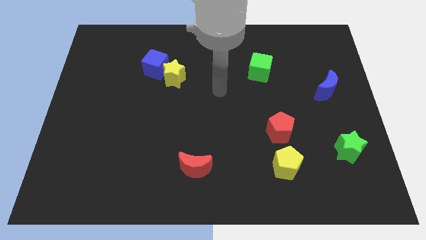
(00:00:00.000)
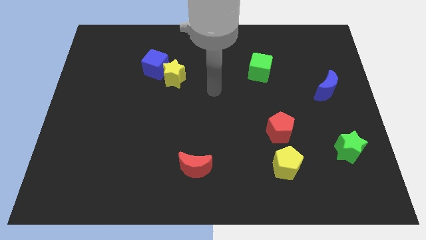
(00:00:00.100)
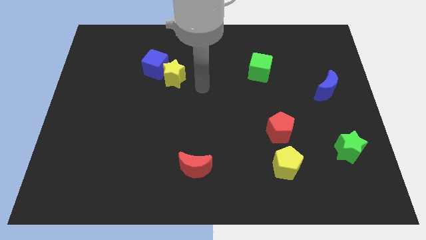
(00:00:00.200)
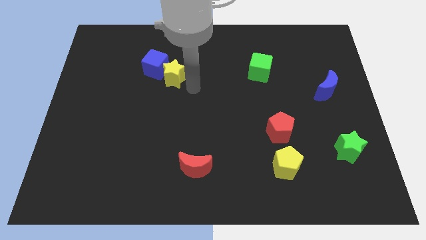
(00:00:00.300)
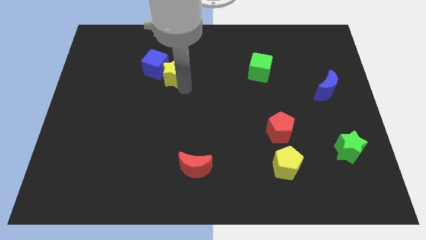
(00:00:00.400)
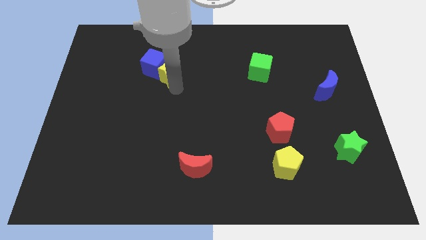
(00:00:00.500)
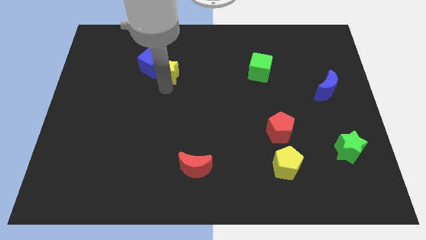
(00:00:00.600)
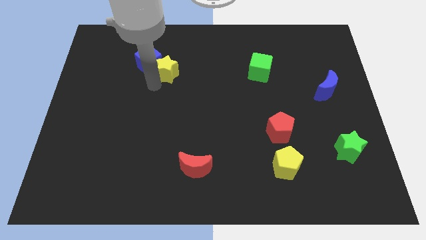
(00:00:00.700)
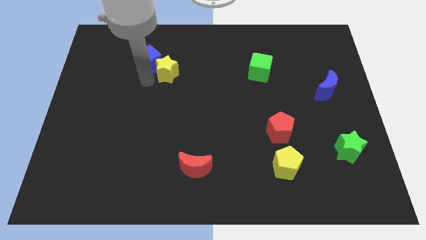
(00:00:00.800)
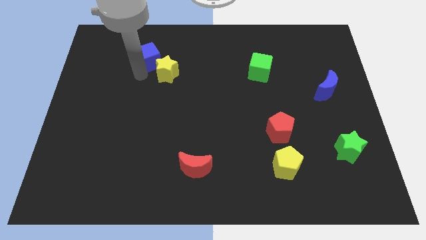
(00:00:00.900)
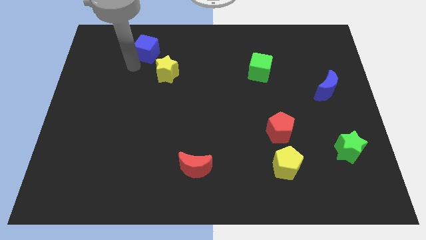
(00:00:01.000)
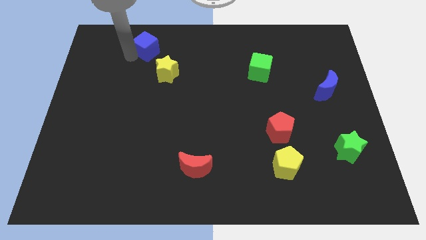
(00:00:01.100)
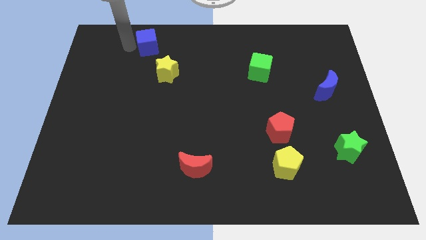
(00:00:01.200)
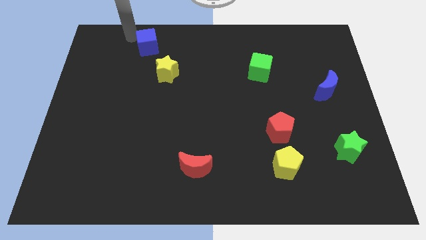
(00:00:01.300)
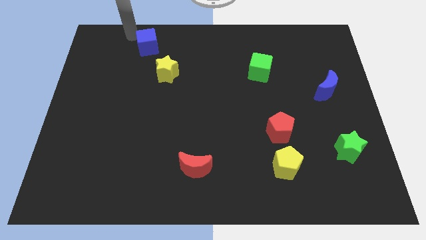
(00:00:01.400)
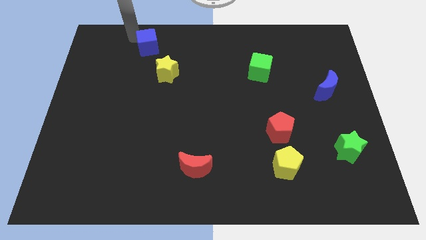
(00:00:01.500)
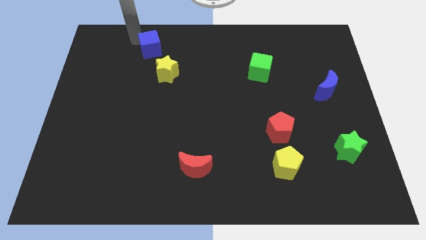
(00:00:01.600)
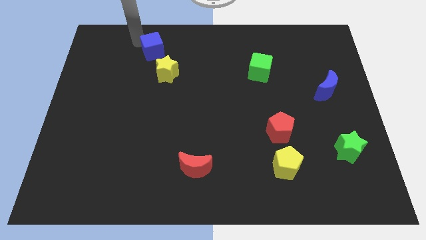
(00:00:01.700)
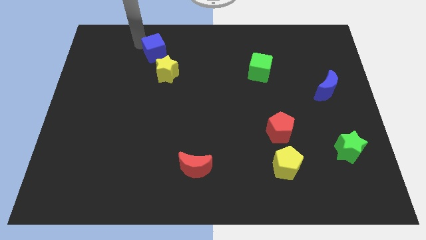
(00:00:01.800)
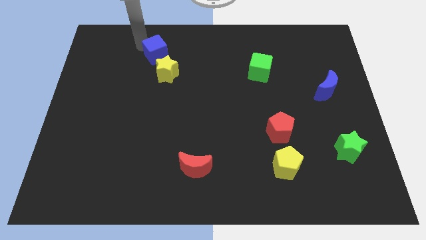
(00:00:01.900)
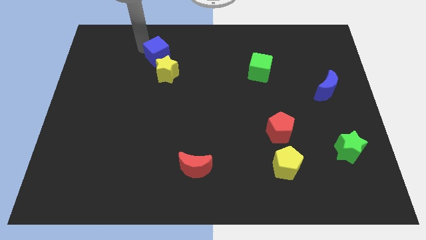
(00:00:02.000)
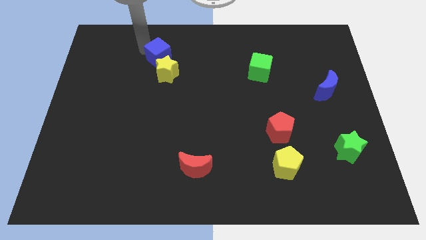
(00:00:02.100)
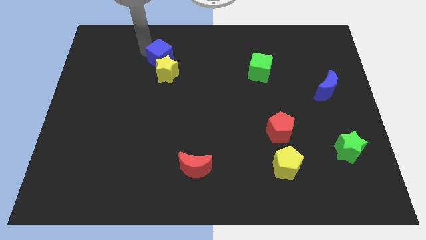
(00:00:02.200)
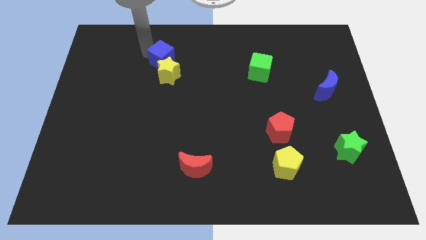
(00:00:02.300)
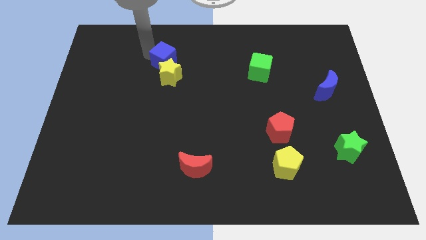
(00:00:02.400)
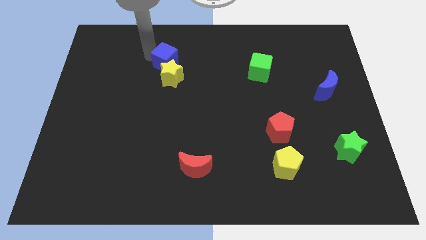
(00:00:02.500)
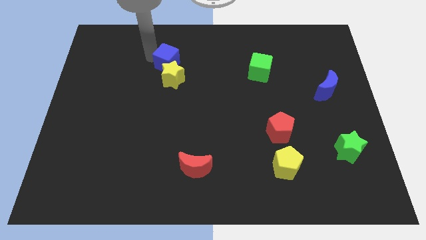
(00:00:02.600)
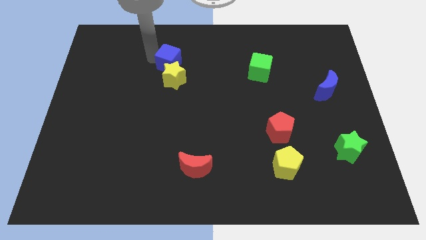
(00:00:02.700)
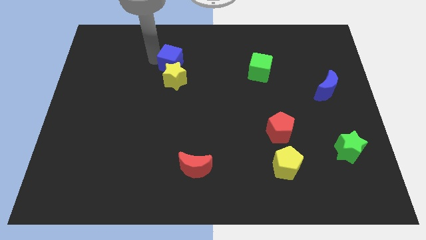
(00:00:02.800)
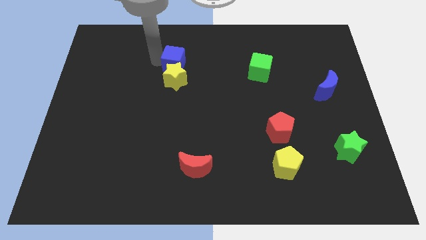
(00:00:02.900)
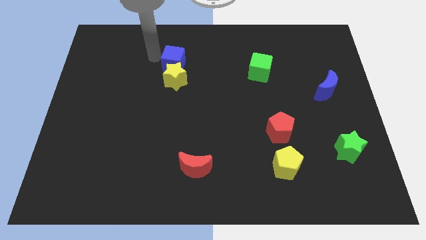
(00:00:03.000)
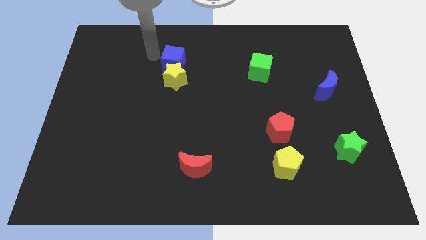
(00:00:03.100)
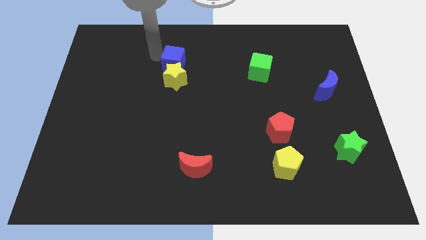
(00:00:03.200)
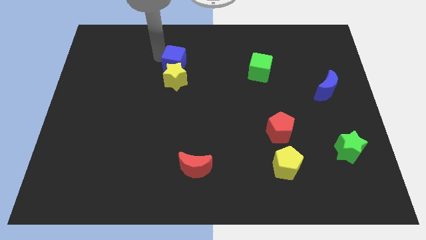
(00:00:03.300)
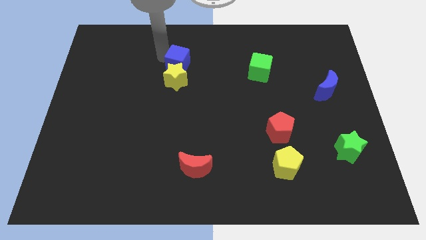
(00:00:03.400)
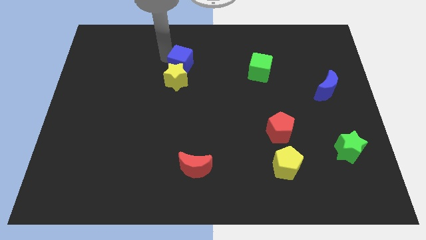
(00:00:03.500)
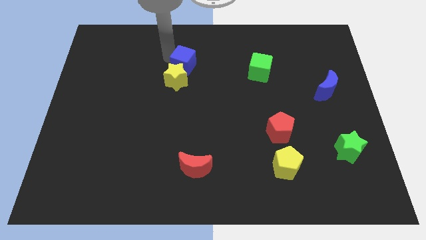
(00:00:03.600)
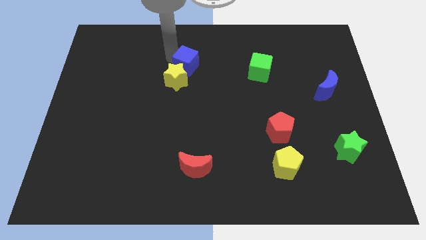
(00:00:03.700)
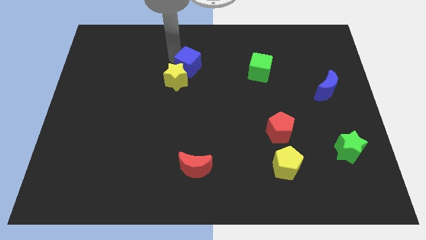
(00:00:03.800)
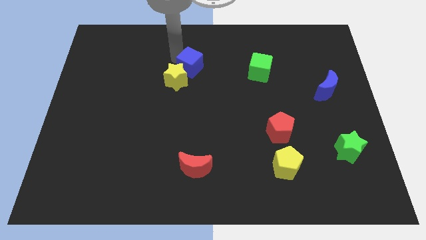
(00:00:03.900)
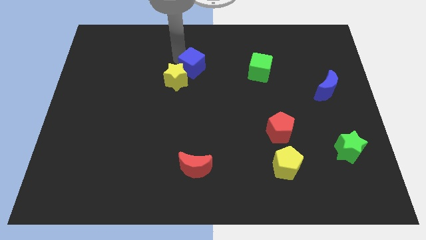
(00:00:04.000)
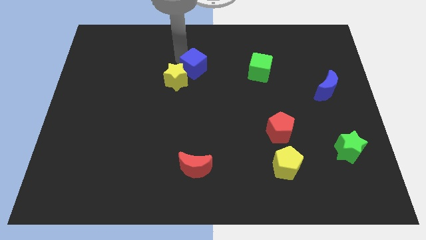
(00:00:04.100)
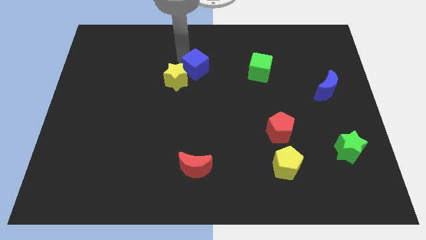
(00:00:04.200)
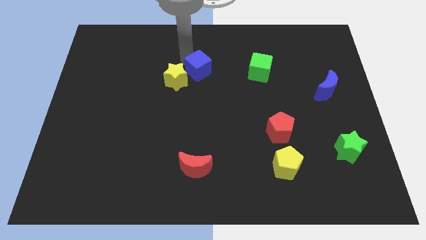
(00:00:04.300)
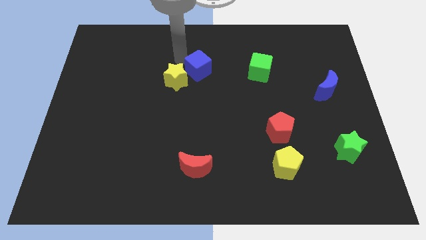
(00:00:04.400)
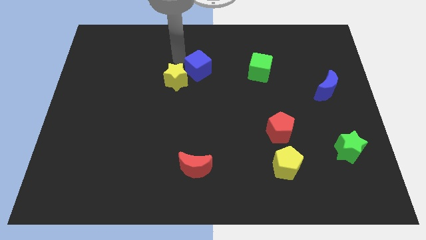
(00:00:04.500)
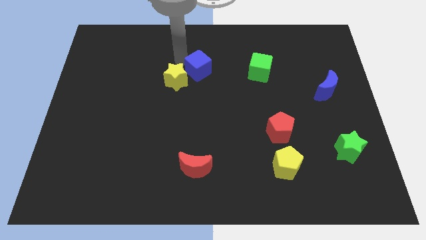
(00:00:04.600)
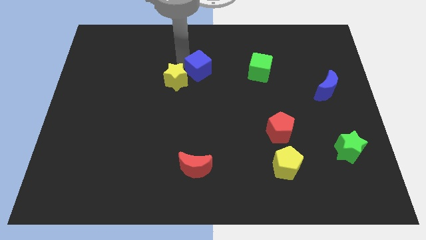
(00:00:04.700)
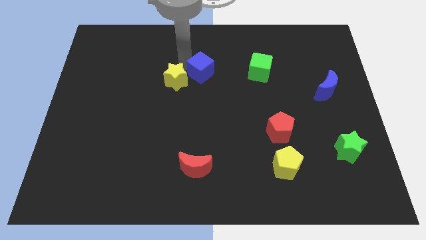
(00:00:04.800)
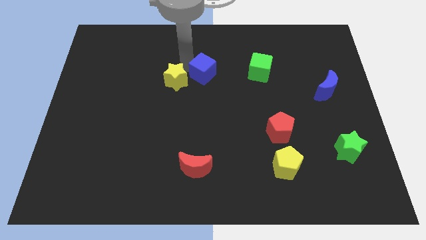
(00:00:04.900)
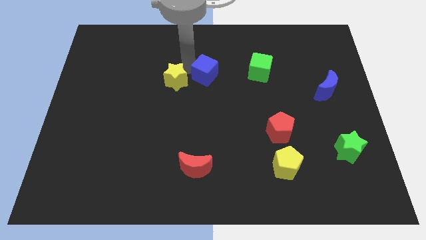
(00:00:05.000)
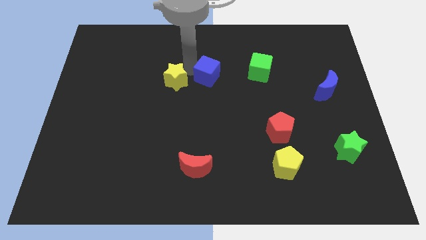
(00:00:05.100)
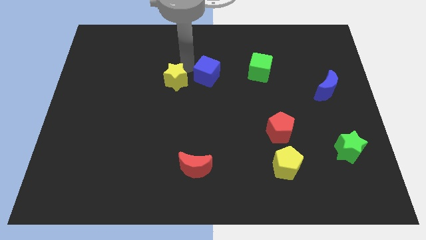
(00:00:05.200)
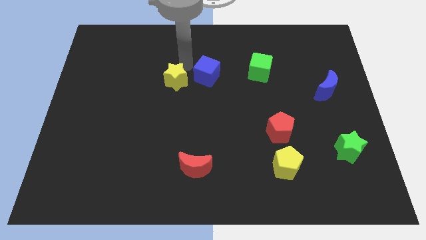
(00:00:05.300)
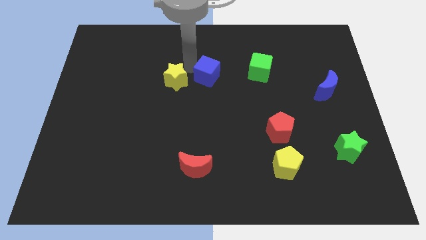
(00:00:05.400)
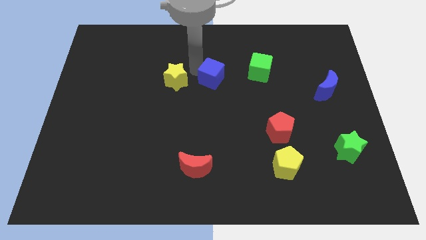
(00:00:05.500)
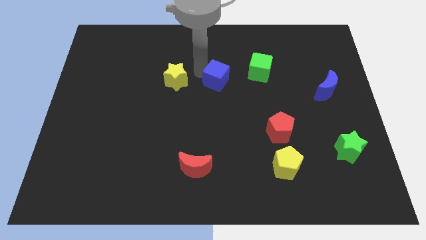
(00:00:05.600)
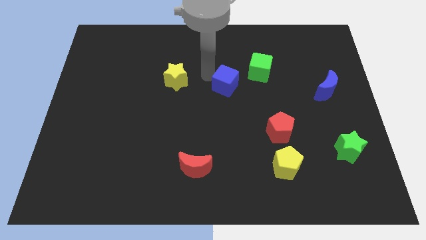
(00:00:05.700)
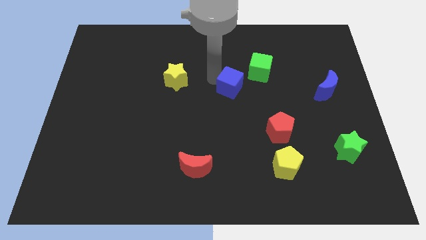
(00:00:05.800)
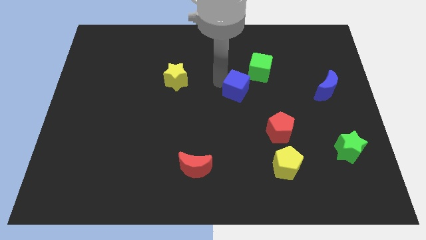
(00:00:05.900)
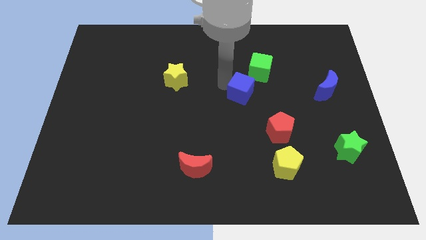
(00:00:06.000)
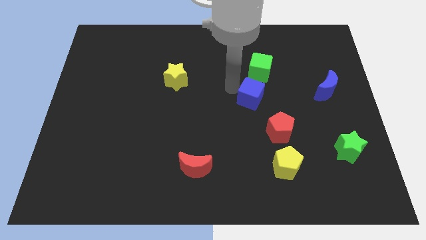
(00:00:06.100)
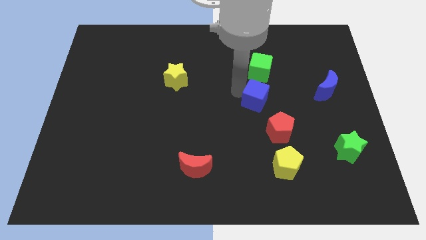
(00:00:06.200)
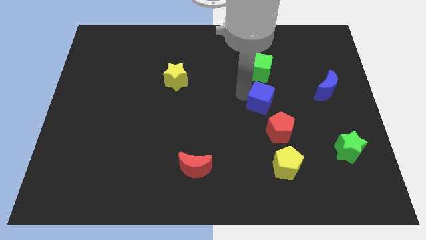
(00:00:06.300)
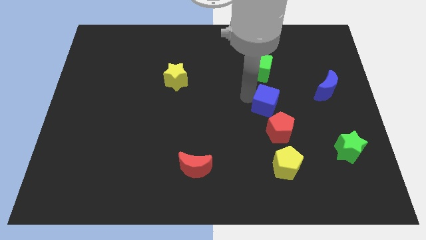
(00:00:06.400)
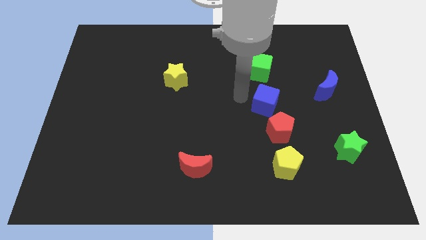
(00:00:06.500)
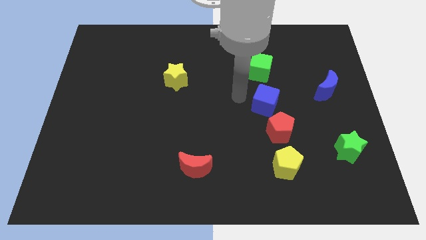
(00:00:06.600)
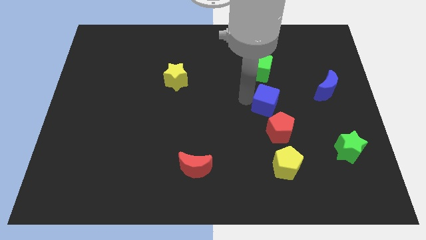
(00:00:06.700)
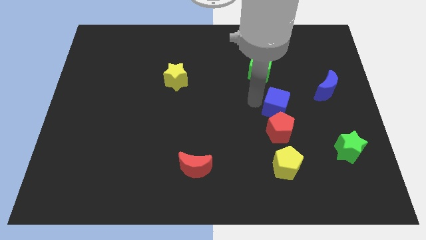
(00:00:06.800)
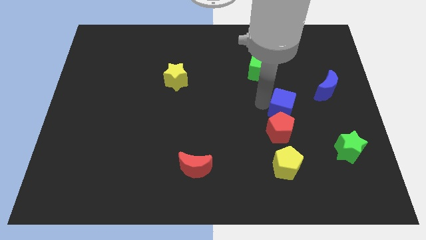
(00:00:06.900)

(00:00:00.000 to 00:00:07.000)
slide the blue cube to the top right of the red pentagon

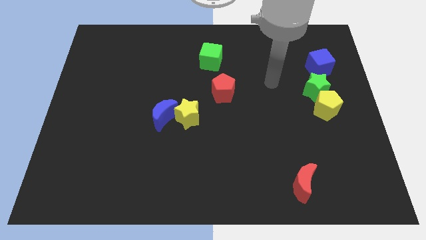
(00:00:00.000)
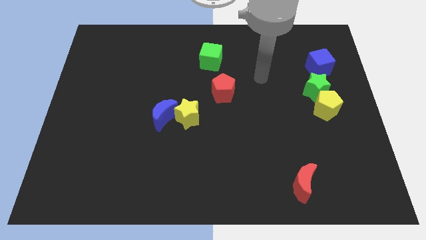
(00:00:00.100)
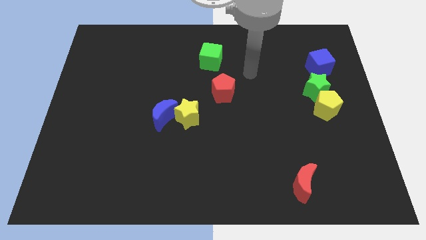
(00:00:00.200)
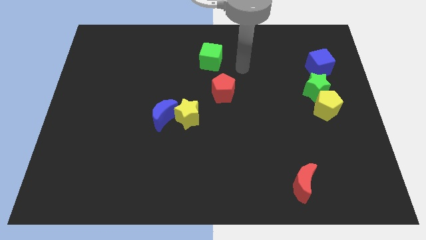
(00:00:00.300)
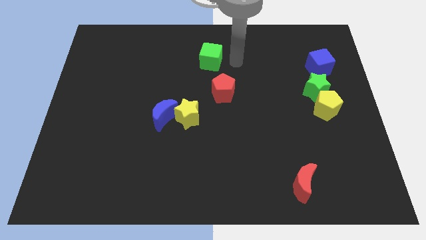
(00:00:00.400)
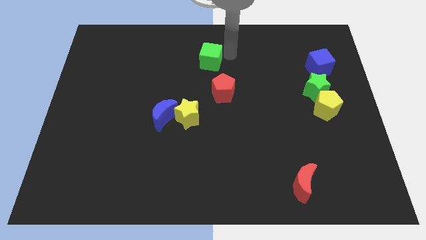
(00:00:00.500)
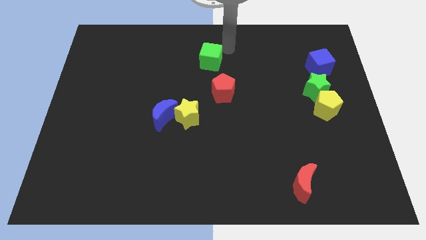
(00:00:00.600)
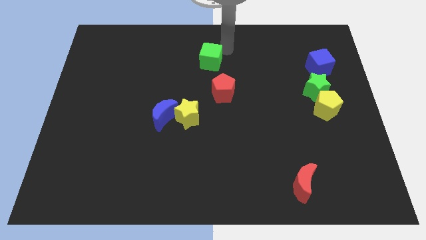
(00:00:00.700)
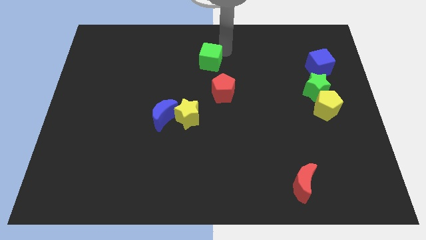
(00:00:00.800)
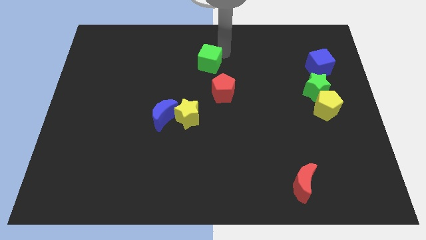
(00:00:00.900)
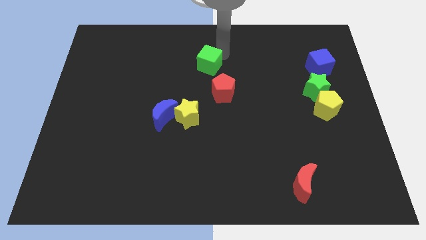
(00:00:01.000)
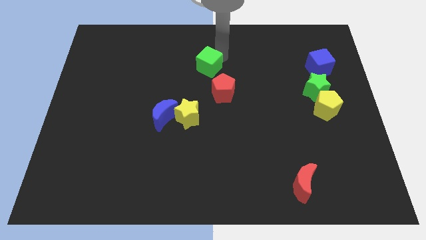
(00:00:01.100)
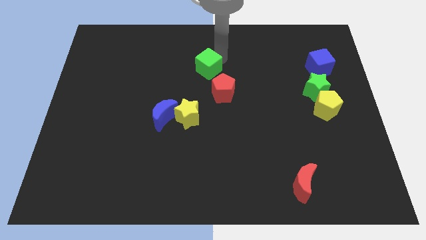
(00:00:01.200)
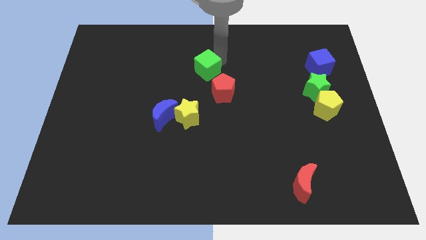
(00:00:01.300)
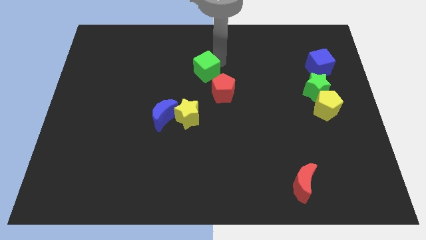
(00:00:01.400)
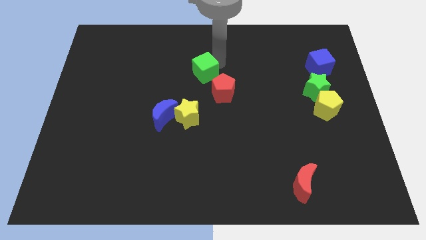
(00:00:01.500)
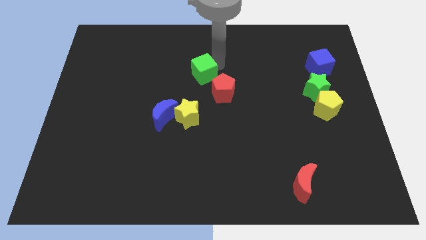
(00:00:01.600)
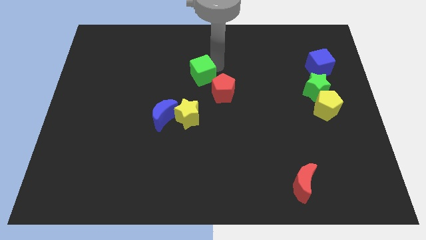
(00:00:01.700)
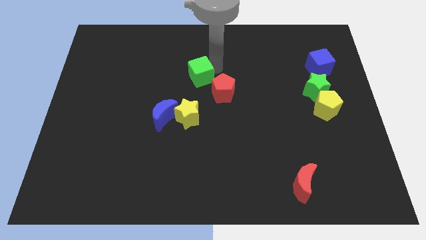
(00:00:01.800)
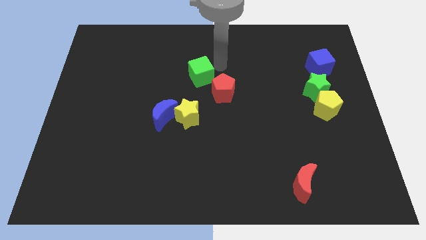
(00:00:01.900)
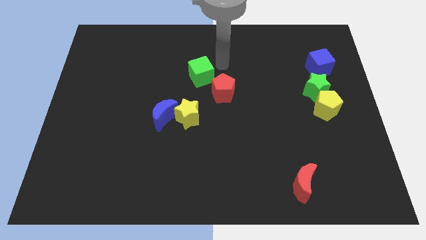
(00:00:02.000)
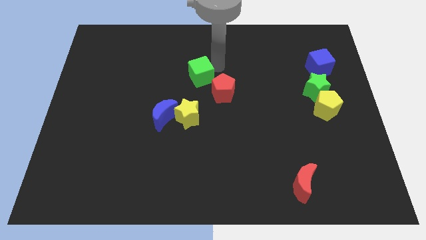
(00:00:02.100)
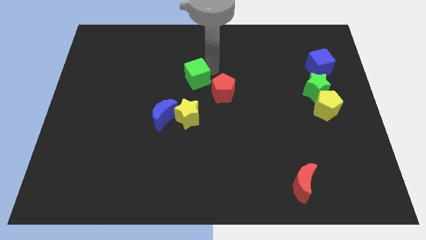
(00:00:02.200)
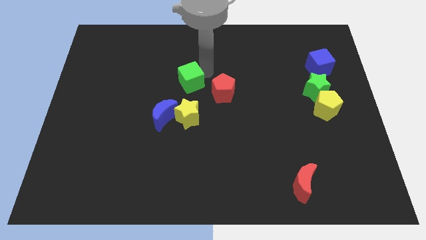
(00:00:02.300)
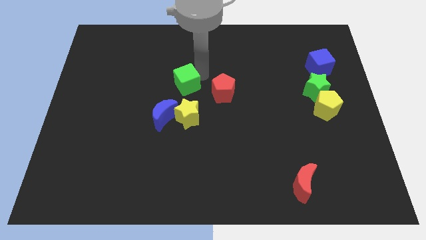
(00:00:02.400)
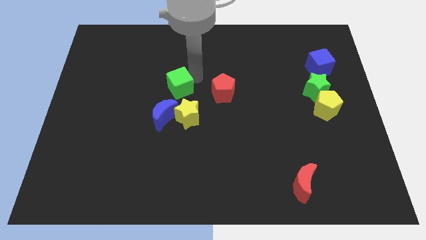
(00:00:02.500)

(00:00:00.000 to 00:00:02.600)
move the green cube diagonally up and to the left of the yellow star
